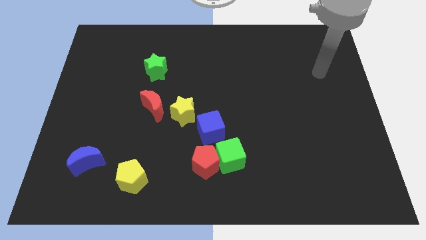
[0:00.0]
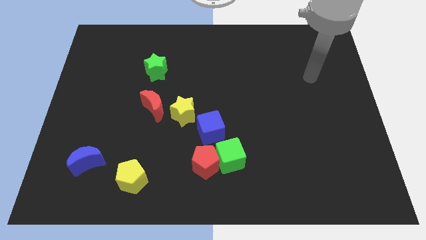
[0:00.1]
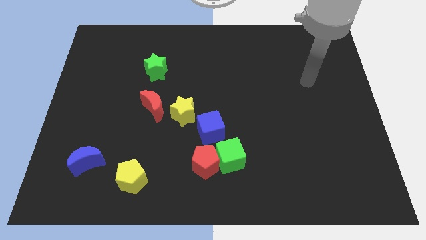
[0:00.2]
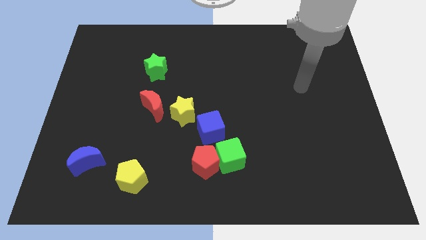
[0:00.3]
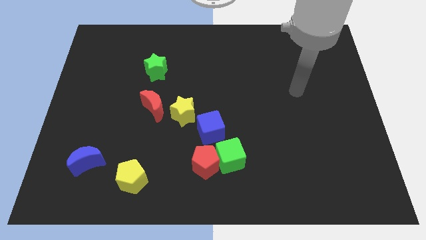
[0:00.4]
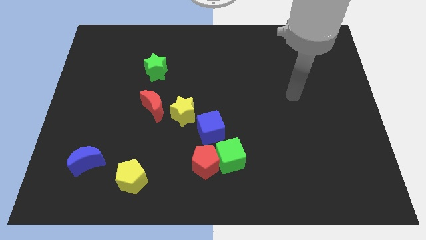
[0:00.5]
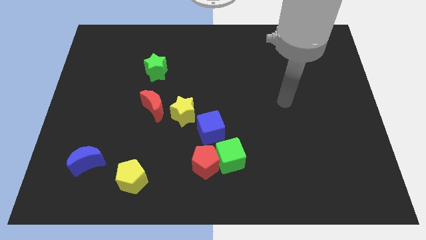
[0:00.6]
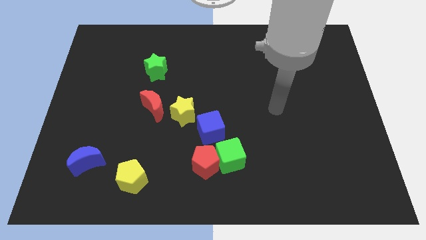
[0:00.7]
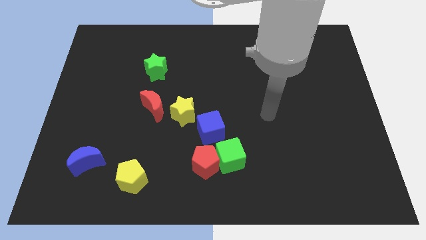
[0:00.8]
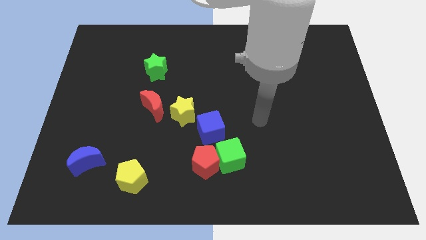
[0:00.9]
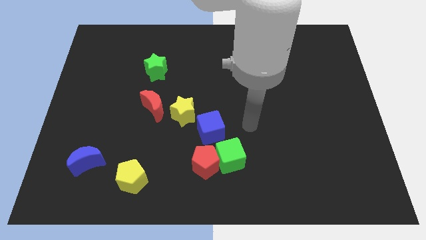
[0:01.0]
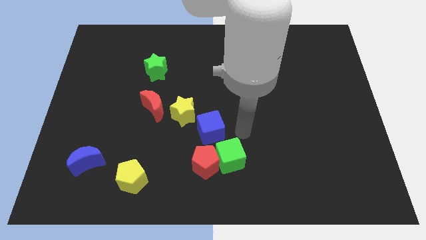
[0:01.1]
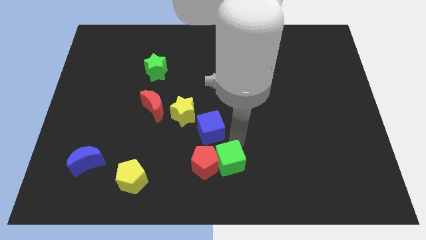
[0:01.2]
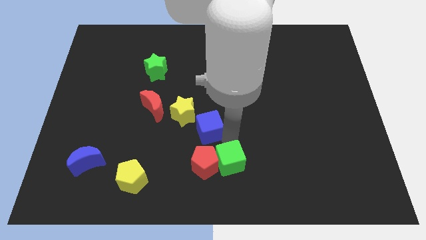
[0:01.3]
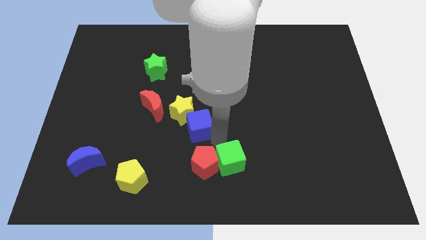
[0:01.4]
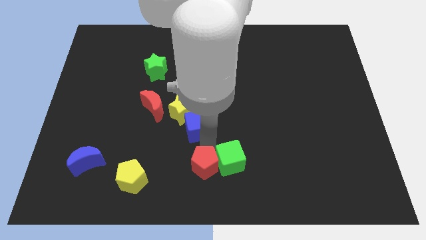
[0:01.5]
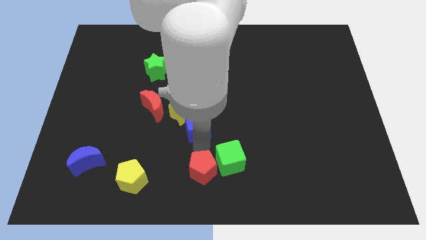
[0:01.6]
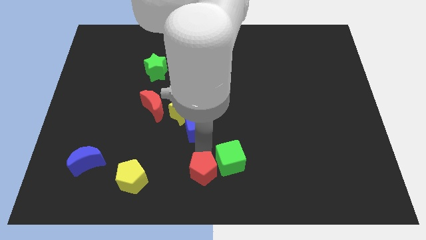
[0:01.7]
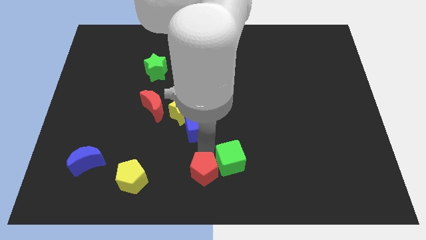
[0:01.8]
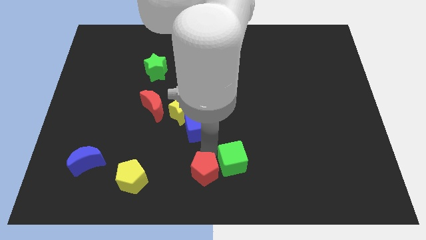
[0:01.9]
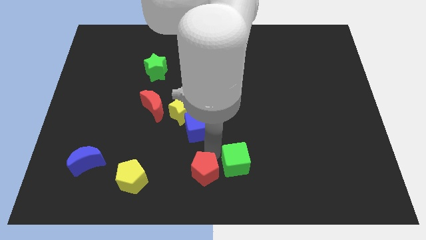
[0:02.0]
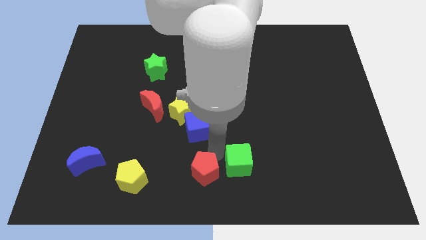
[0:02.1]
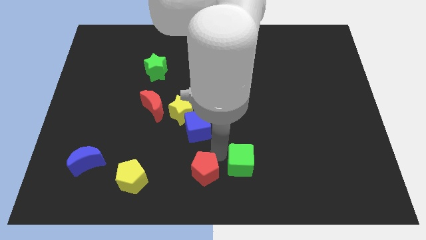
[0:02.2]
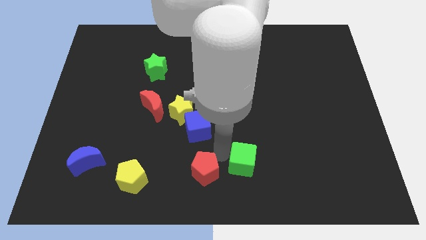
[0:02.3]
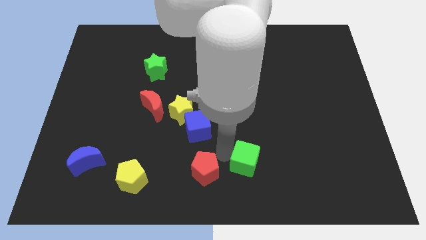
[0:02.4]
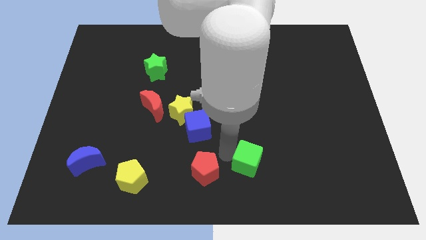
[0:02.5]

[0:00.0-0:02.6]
pull the green cube apart from the red pentagon and blue cube

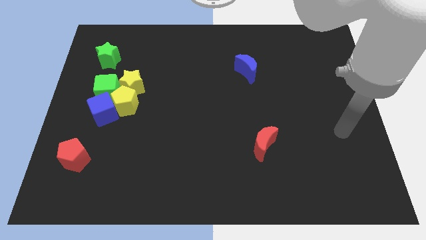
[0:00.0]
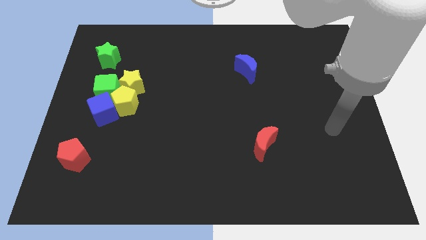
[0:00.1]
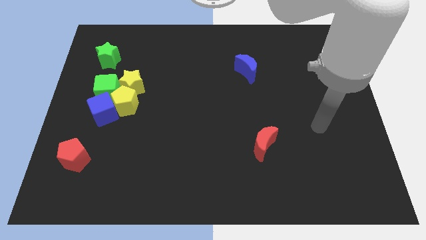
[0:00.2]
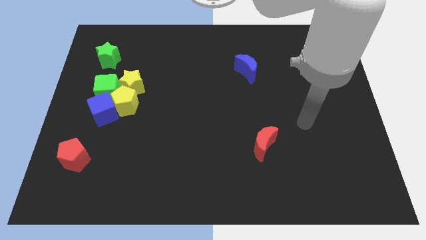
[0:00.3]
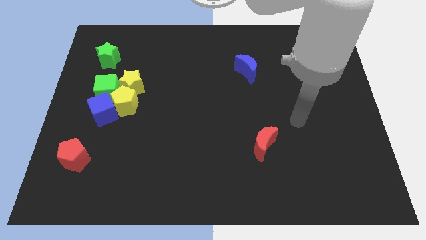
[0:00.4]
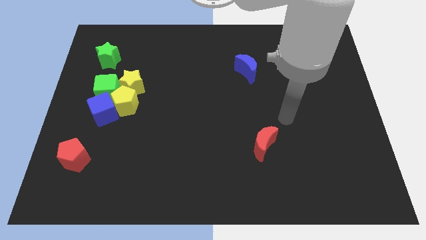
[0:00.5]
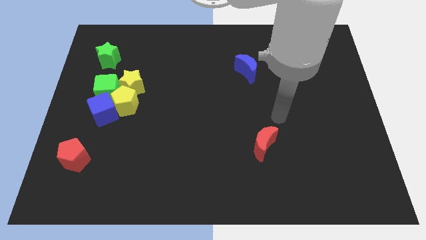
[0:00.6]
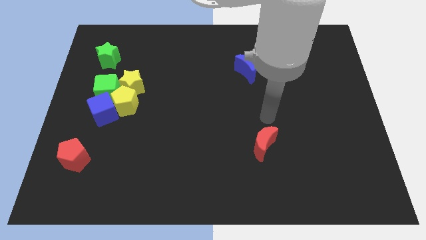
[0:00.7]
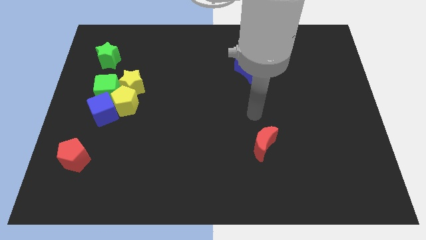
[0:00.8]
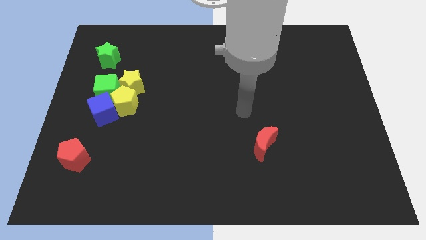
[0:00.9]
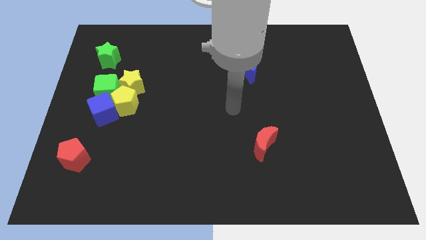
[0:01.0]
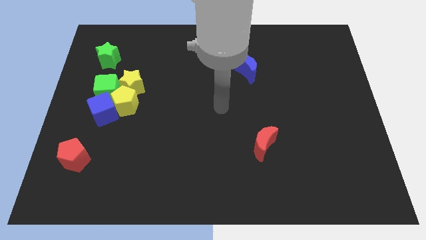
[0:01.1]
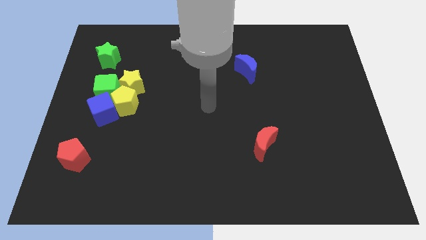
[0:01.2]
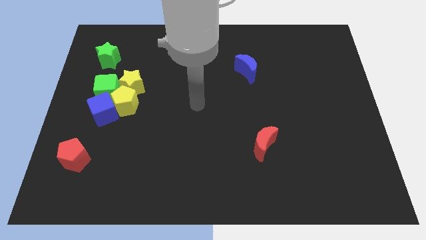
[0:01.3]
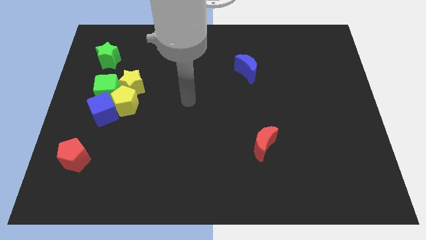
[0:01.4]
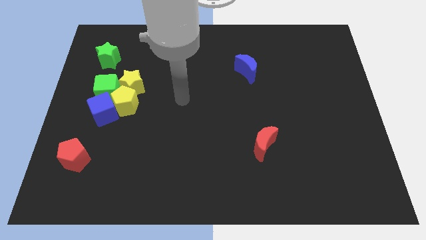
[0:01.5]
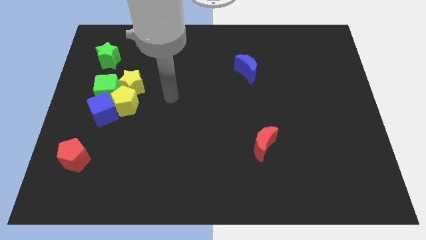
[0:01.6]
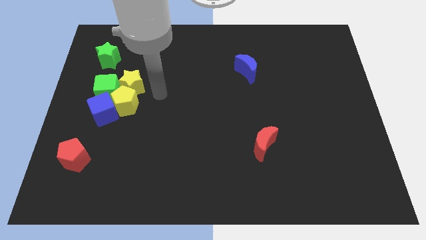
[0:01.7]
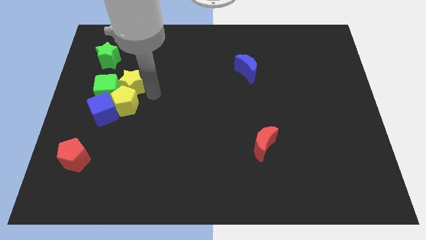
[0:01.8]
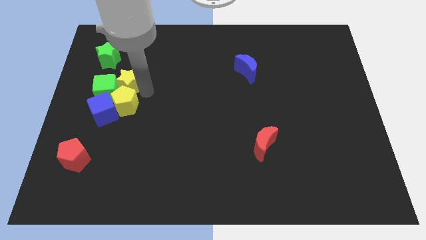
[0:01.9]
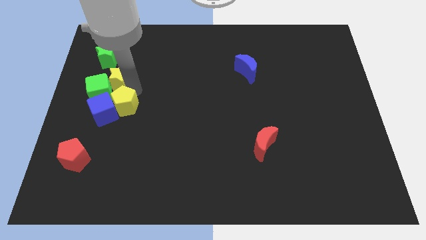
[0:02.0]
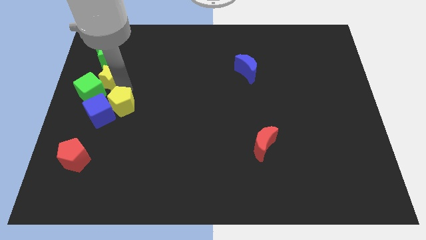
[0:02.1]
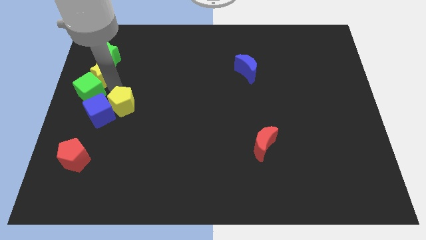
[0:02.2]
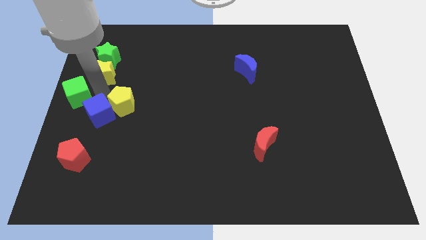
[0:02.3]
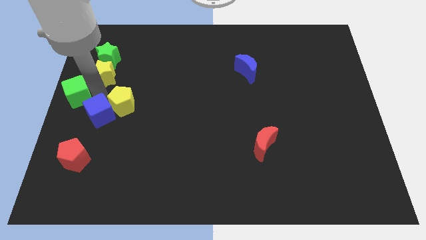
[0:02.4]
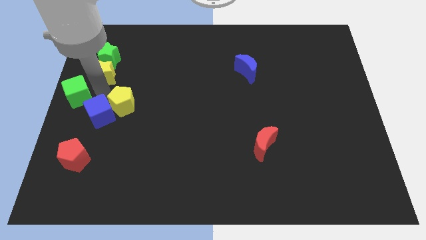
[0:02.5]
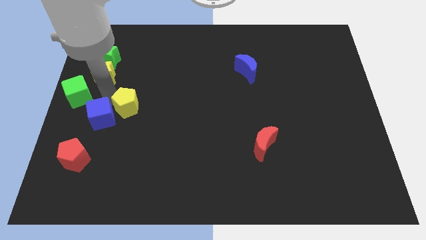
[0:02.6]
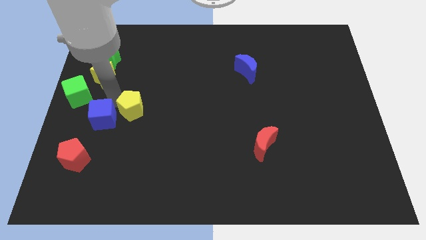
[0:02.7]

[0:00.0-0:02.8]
pull the yellow pentagon apart from the blue cube, yellow star, and green cube

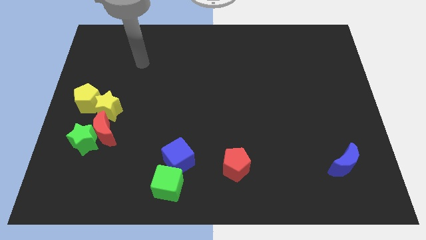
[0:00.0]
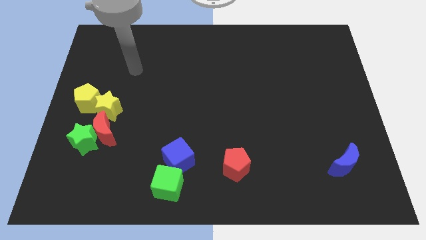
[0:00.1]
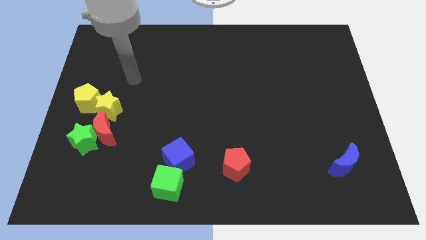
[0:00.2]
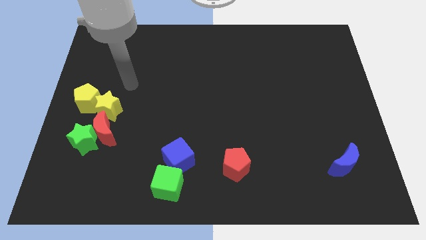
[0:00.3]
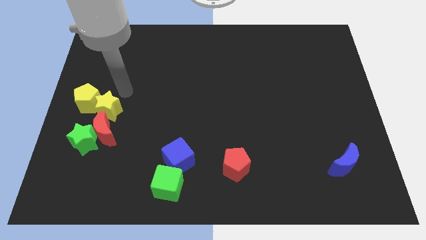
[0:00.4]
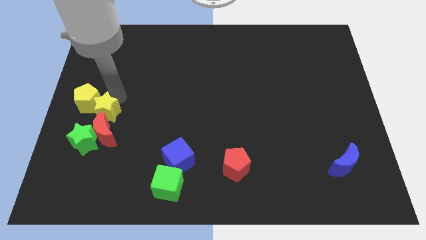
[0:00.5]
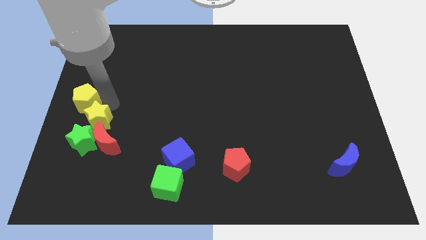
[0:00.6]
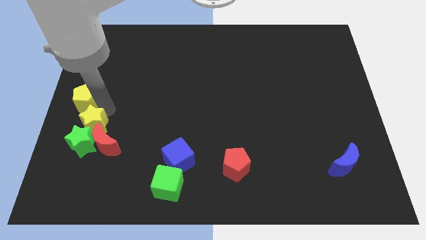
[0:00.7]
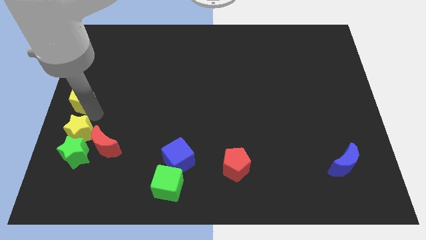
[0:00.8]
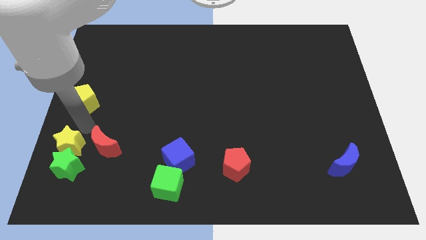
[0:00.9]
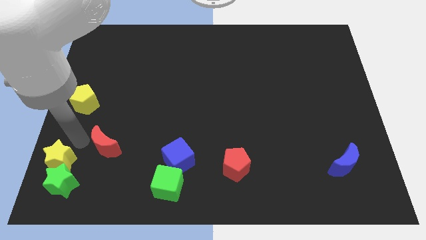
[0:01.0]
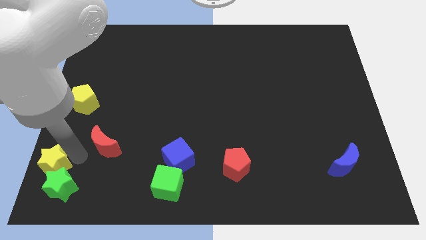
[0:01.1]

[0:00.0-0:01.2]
pull the red moon apart from the green star and yellow star

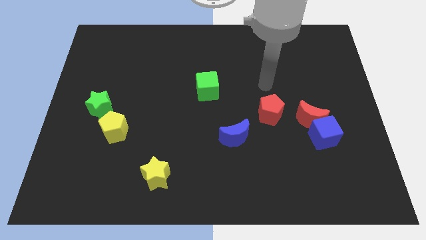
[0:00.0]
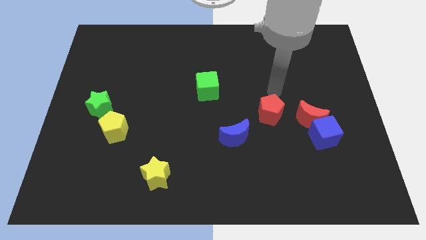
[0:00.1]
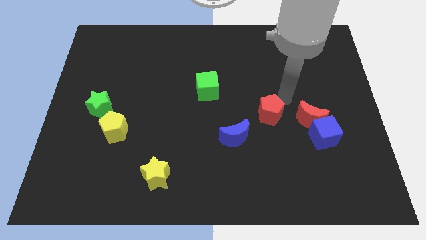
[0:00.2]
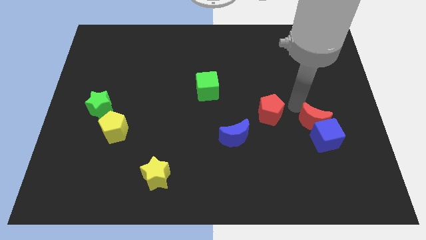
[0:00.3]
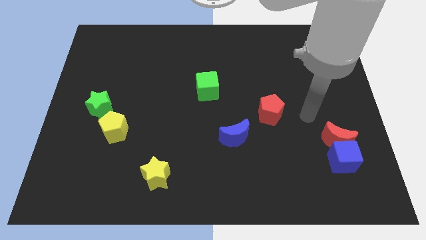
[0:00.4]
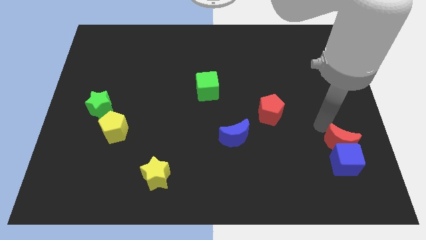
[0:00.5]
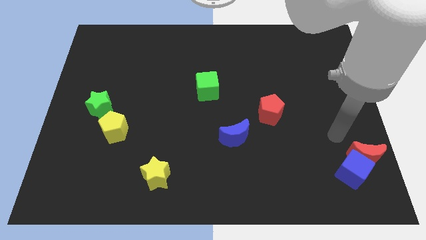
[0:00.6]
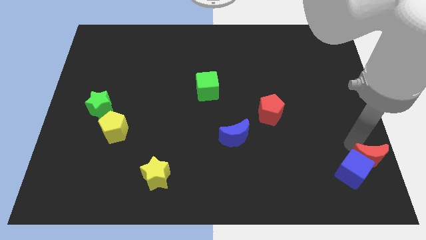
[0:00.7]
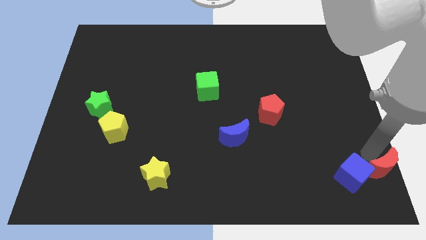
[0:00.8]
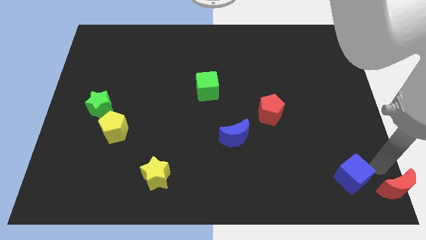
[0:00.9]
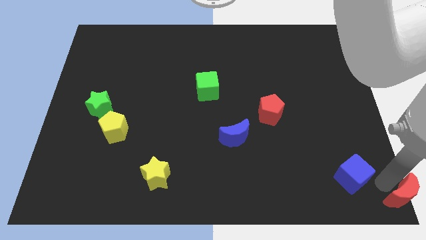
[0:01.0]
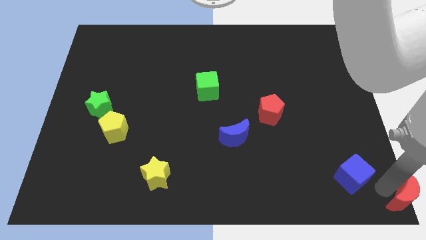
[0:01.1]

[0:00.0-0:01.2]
separate the blue cube from the red moon

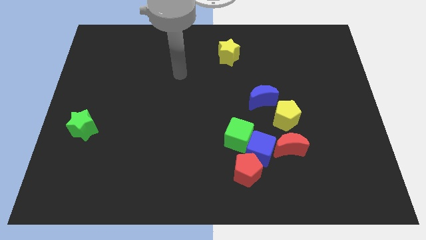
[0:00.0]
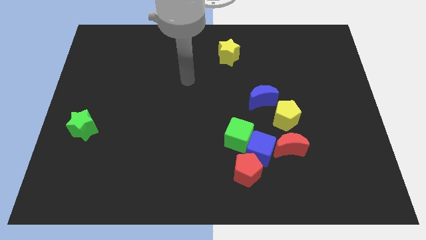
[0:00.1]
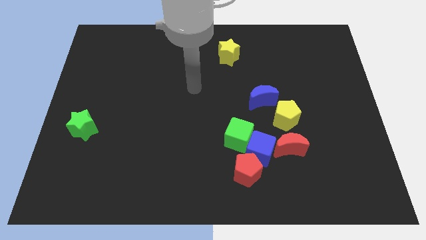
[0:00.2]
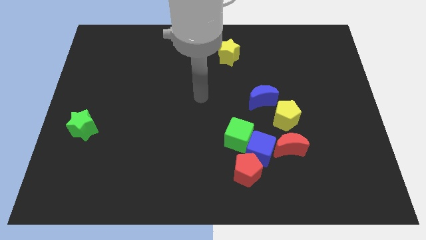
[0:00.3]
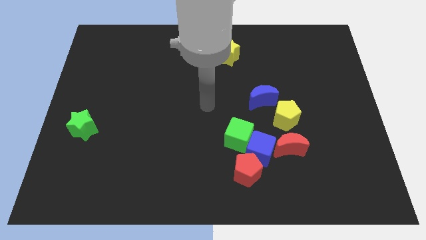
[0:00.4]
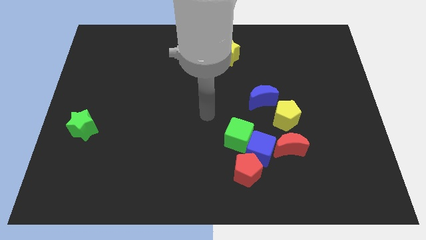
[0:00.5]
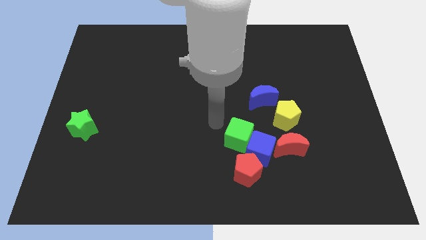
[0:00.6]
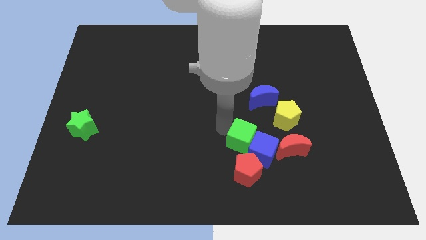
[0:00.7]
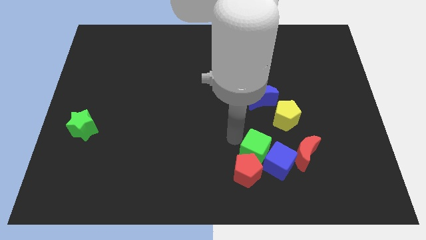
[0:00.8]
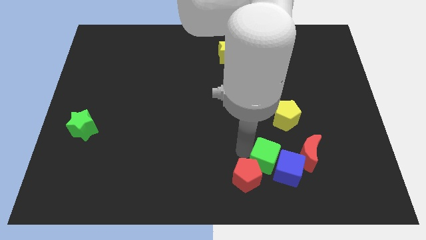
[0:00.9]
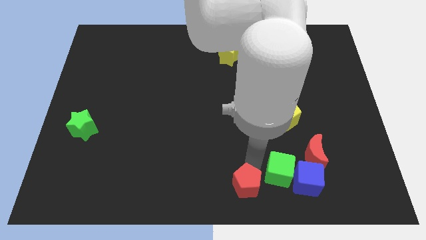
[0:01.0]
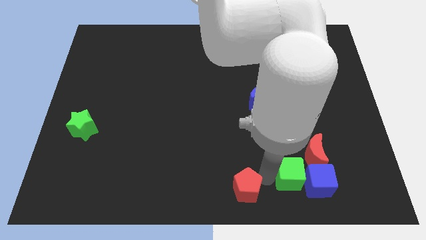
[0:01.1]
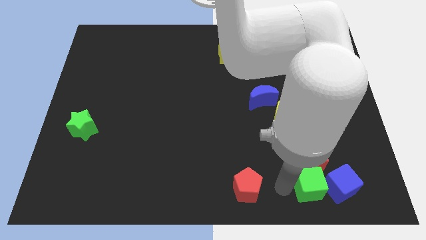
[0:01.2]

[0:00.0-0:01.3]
move the blue cube away from the green cube, red pentagon, and red moon

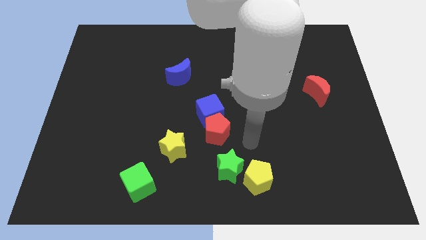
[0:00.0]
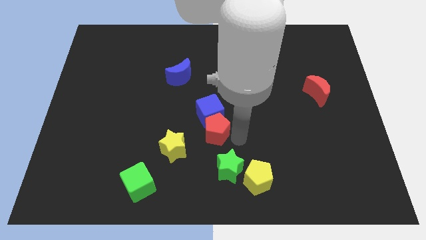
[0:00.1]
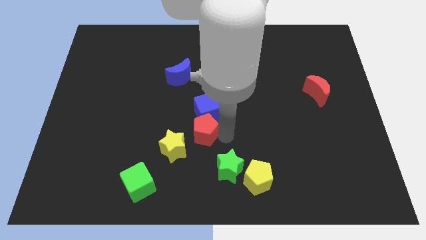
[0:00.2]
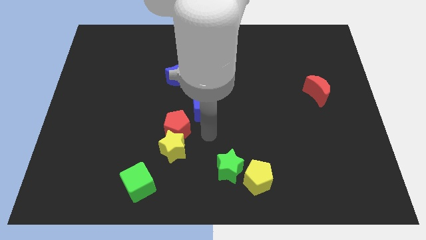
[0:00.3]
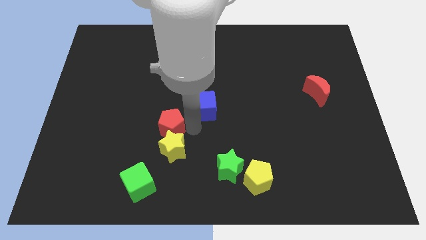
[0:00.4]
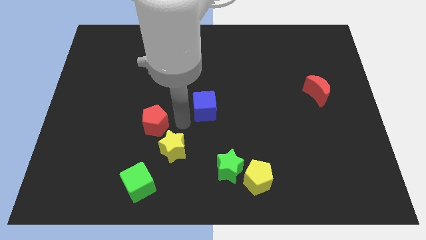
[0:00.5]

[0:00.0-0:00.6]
move the blue cube away from the red pentagon
